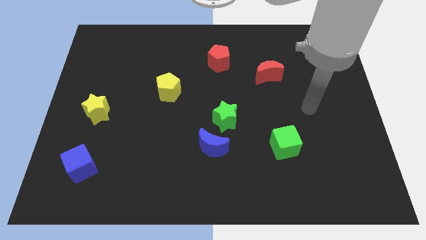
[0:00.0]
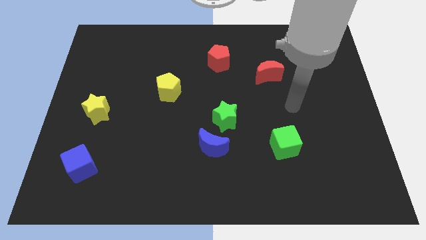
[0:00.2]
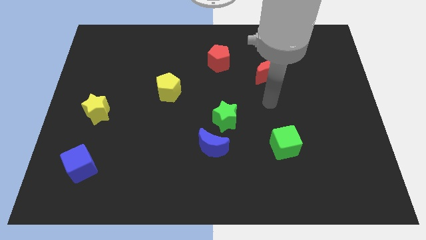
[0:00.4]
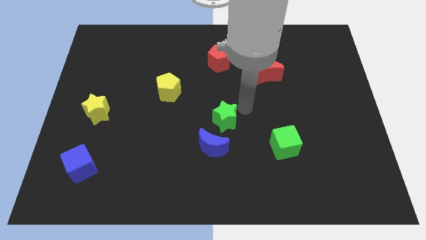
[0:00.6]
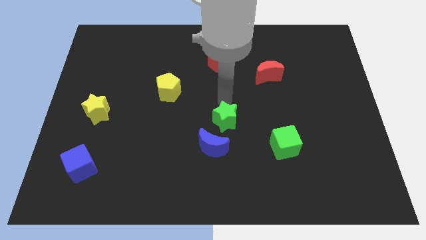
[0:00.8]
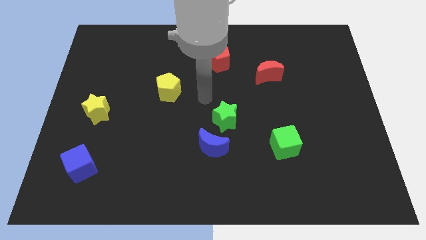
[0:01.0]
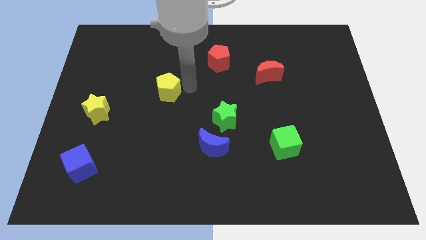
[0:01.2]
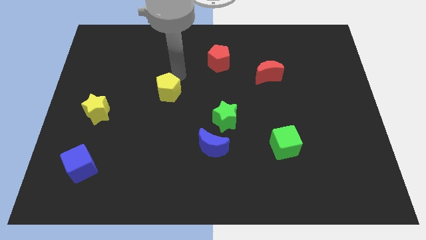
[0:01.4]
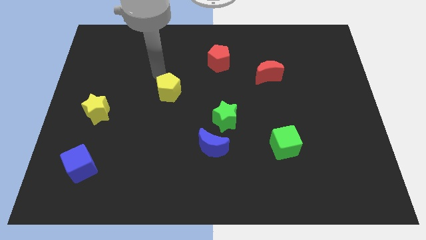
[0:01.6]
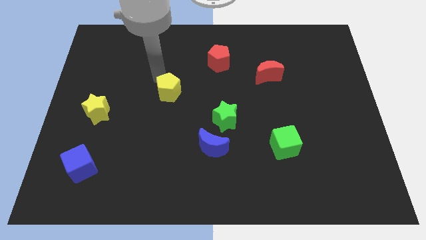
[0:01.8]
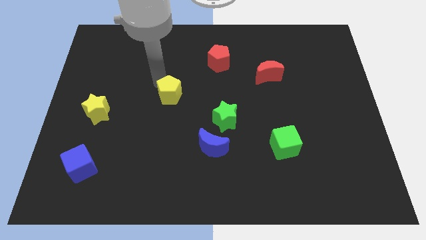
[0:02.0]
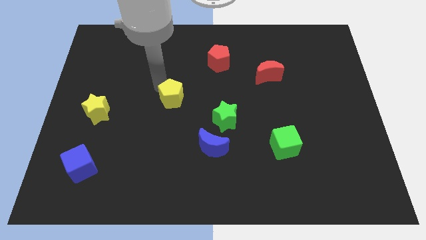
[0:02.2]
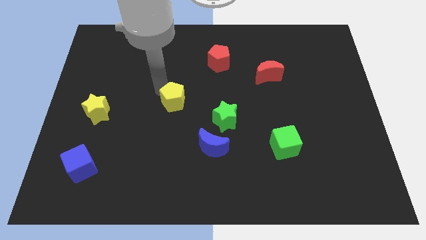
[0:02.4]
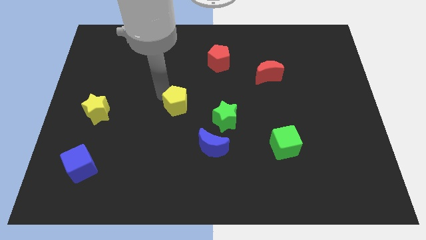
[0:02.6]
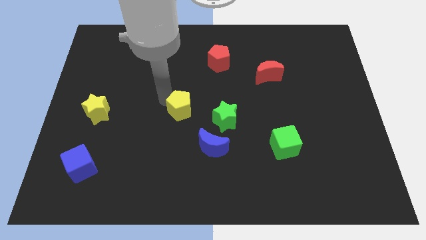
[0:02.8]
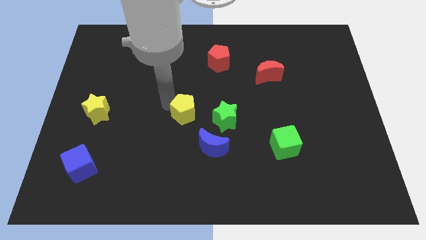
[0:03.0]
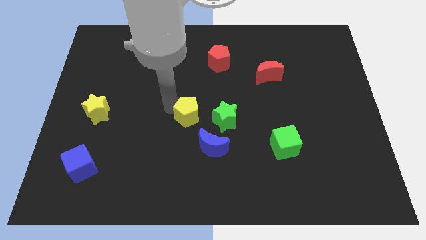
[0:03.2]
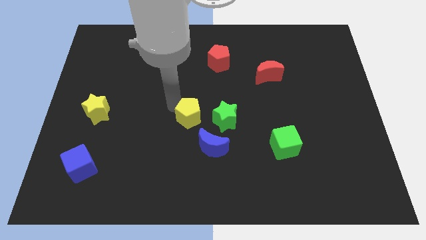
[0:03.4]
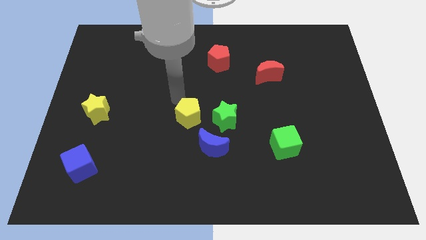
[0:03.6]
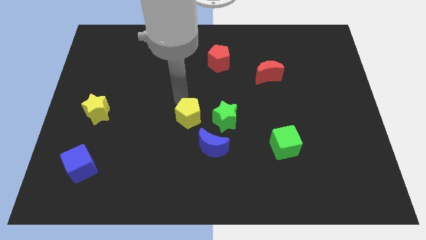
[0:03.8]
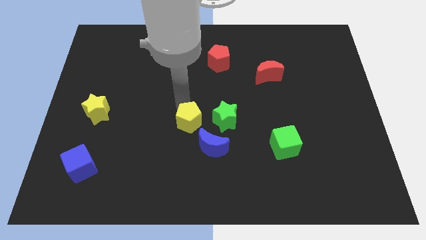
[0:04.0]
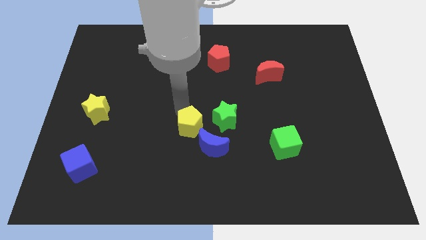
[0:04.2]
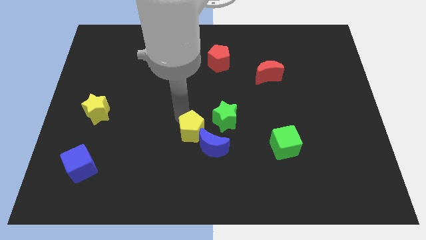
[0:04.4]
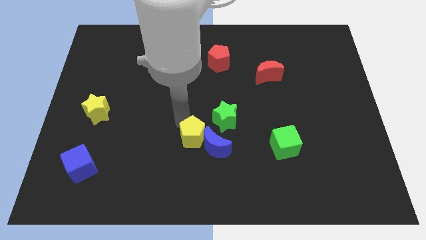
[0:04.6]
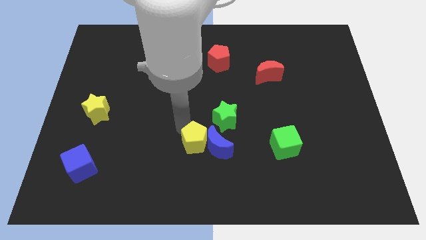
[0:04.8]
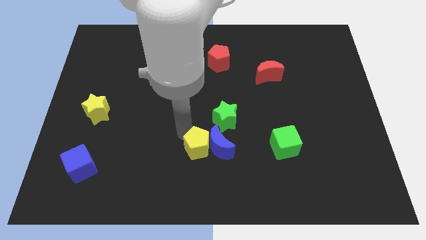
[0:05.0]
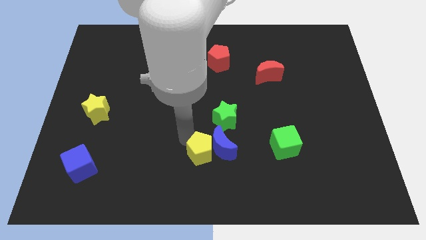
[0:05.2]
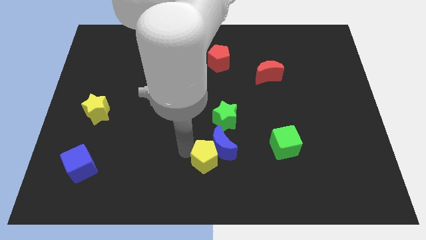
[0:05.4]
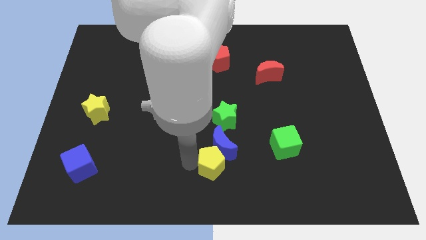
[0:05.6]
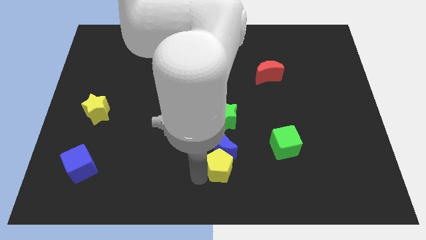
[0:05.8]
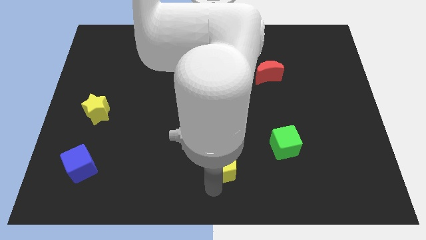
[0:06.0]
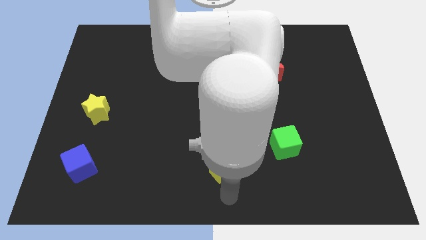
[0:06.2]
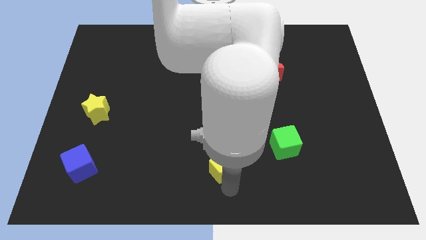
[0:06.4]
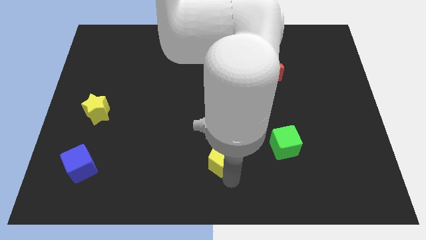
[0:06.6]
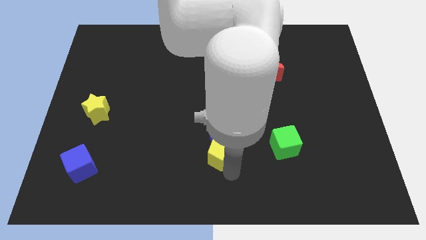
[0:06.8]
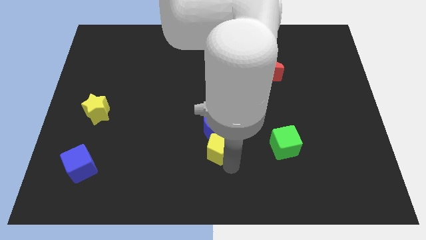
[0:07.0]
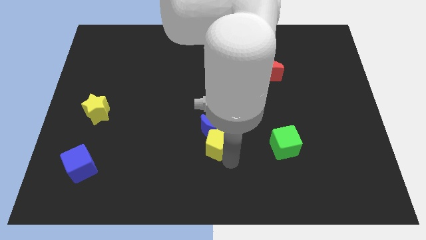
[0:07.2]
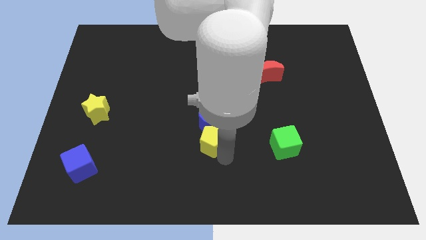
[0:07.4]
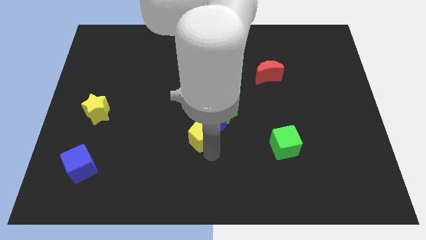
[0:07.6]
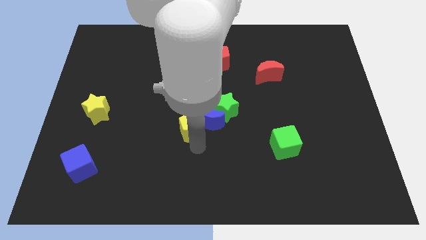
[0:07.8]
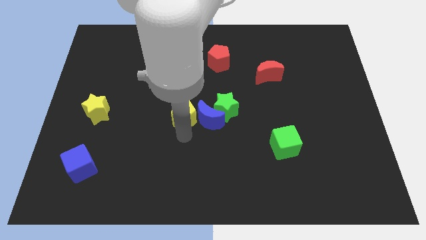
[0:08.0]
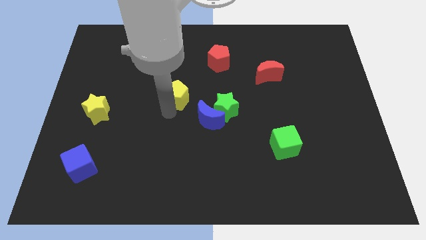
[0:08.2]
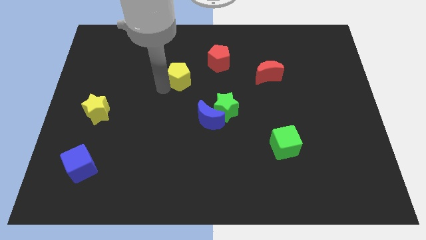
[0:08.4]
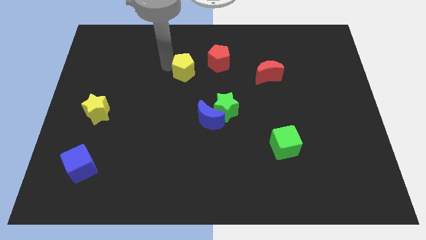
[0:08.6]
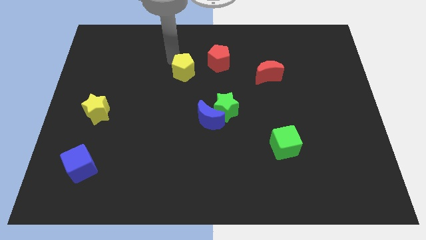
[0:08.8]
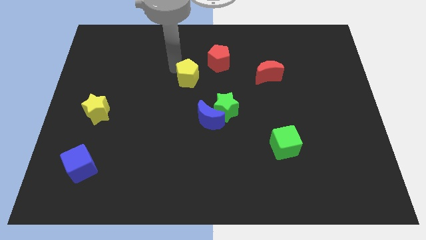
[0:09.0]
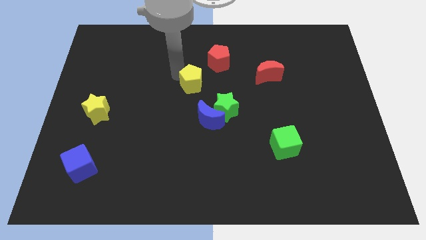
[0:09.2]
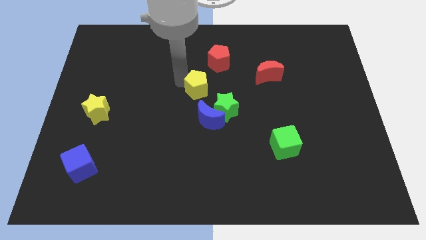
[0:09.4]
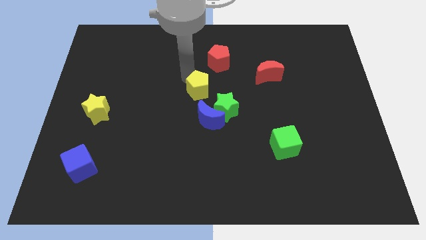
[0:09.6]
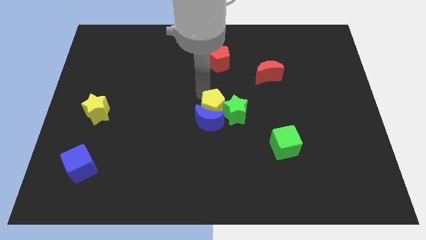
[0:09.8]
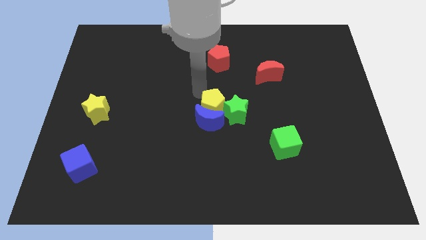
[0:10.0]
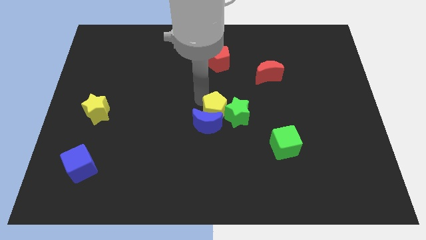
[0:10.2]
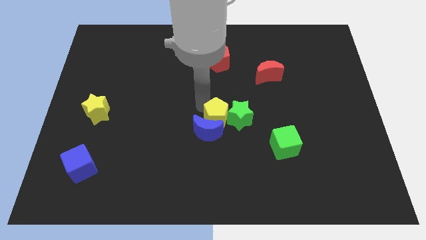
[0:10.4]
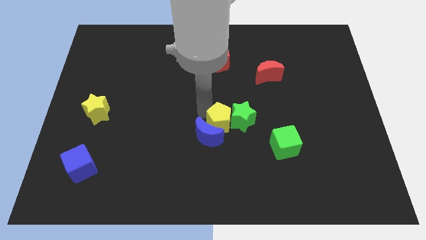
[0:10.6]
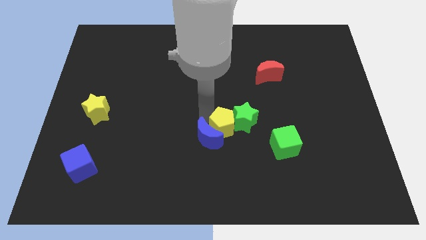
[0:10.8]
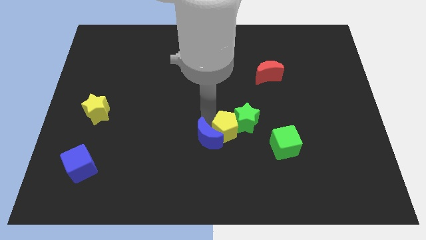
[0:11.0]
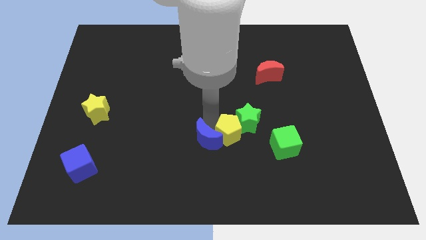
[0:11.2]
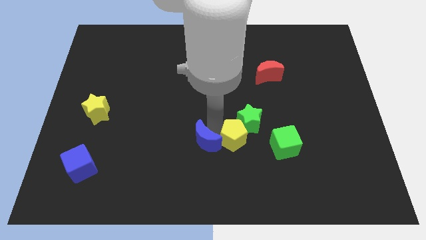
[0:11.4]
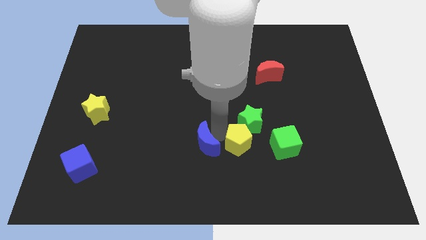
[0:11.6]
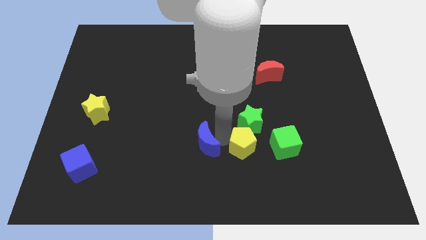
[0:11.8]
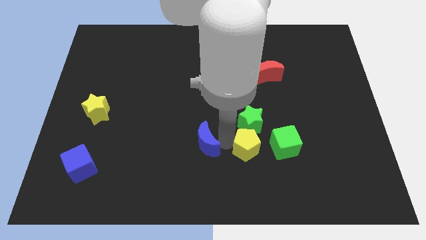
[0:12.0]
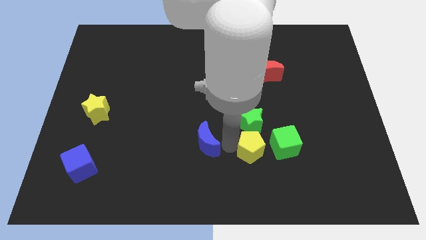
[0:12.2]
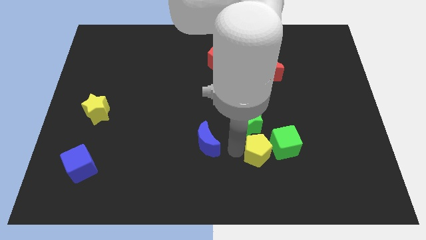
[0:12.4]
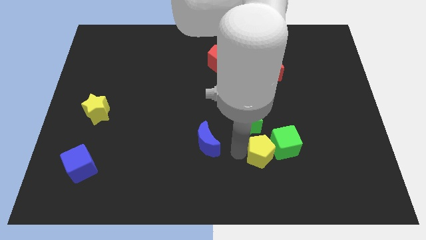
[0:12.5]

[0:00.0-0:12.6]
slide the yellow pentagon to the green cube

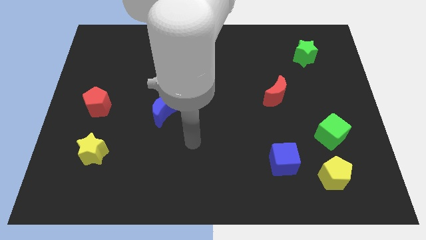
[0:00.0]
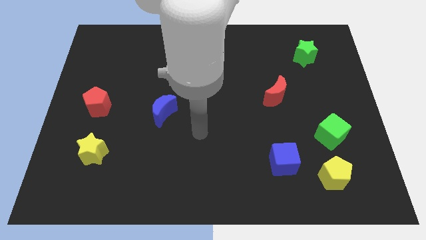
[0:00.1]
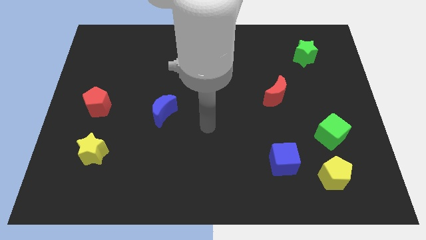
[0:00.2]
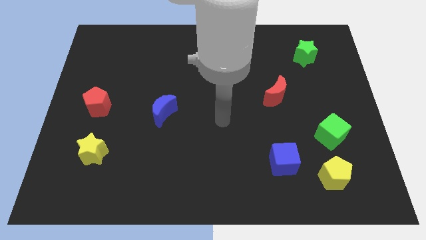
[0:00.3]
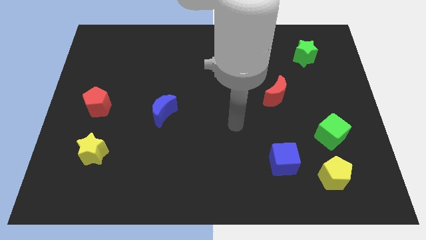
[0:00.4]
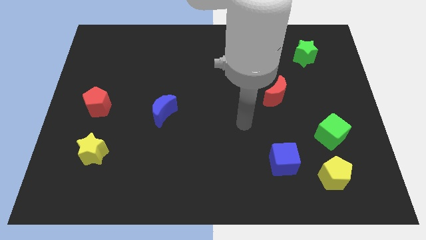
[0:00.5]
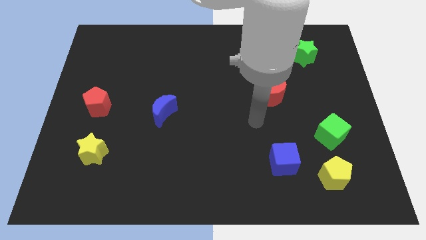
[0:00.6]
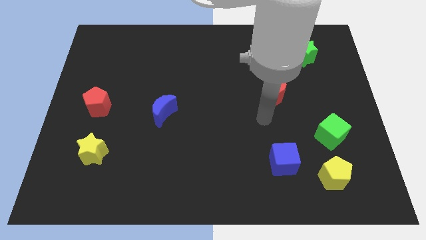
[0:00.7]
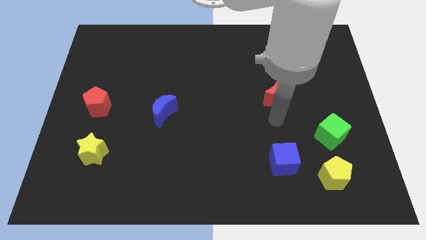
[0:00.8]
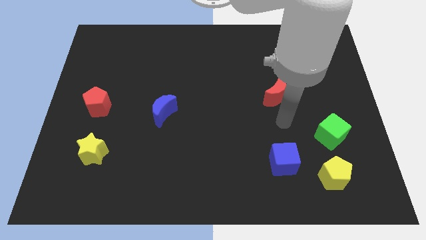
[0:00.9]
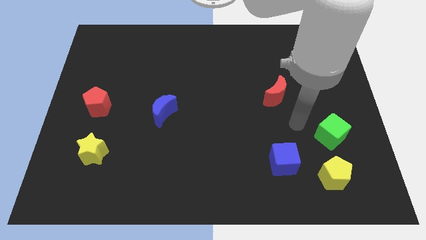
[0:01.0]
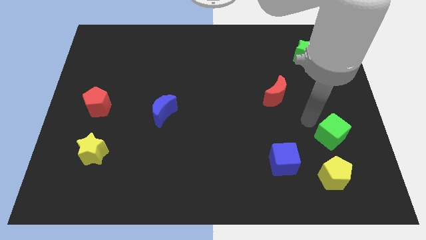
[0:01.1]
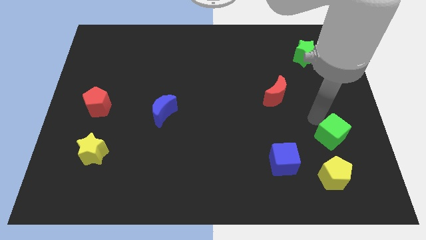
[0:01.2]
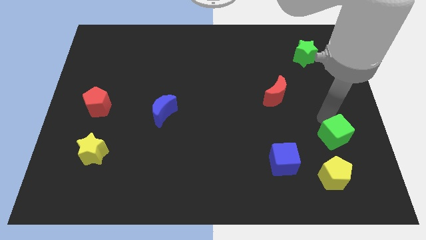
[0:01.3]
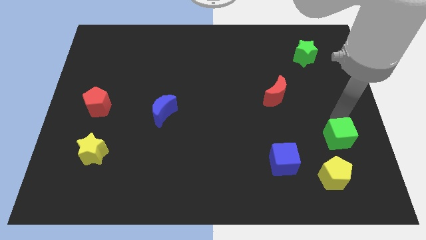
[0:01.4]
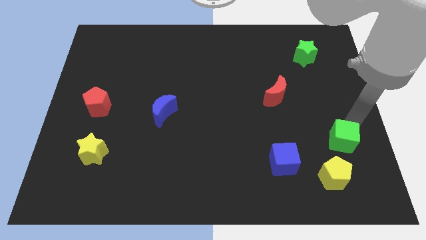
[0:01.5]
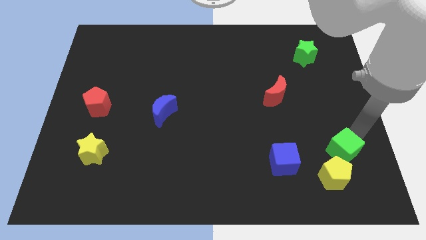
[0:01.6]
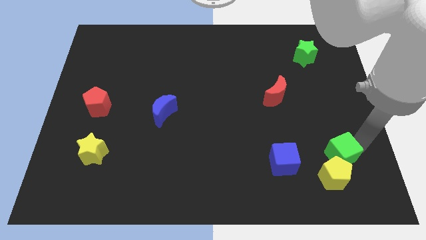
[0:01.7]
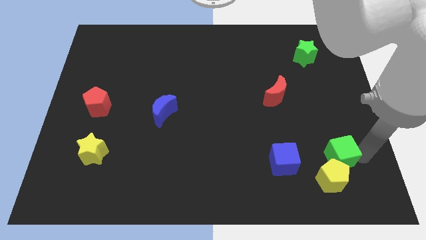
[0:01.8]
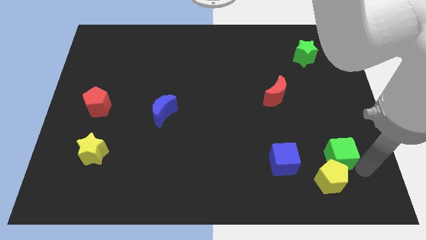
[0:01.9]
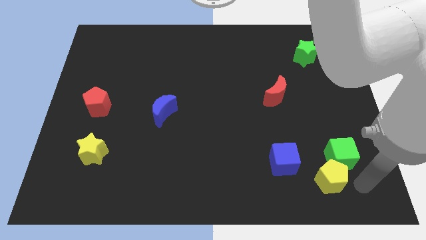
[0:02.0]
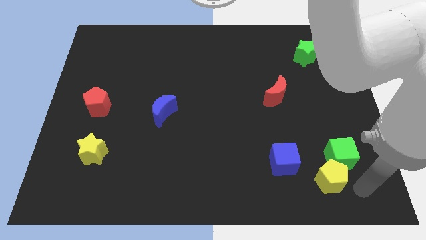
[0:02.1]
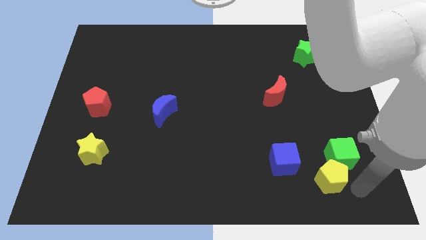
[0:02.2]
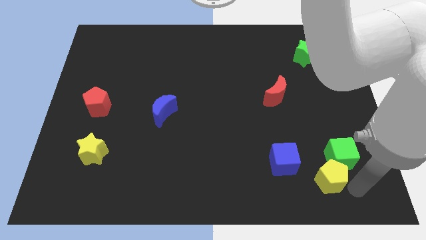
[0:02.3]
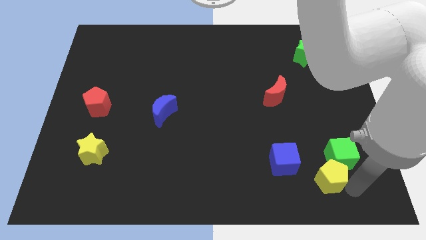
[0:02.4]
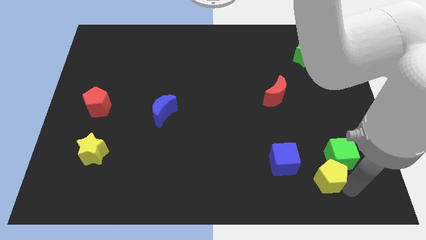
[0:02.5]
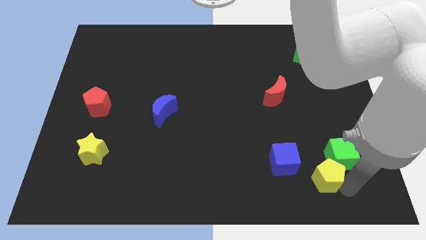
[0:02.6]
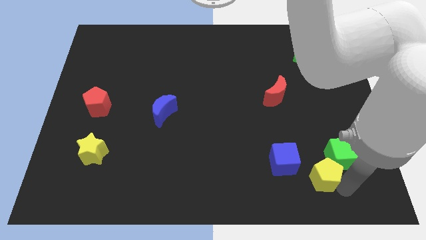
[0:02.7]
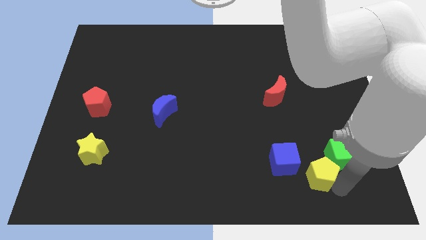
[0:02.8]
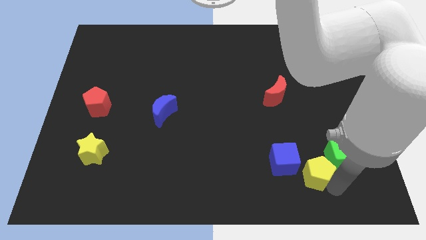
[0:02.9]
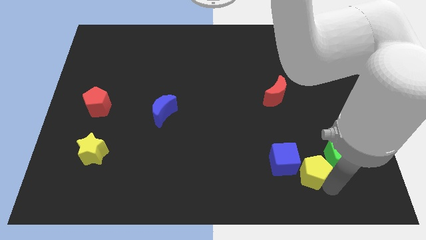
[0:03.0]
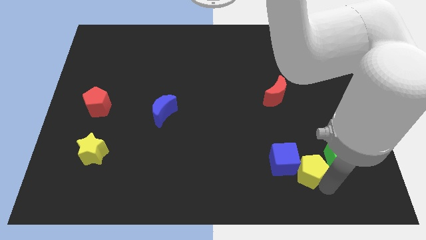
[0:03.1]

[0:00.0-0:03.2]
move the yellow pentagon next to the blue cube
